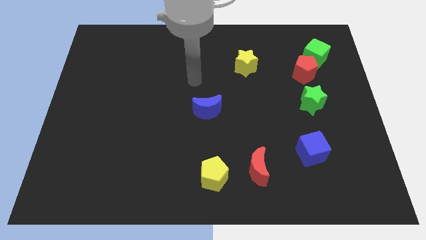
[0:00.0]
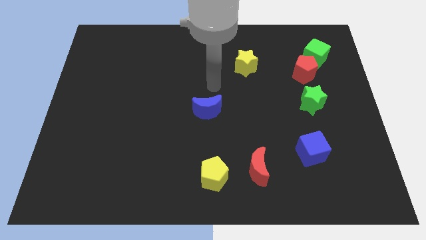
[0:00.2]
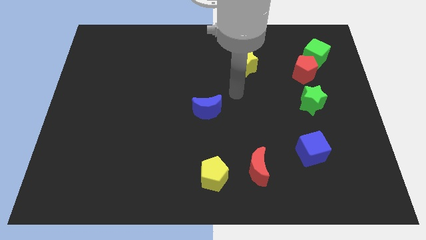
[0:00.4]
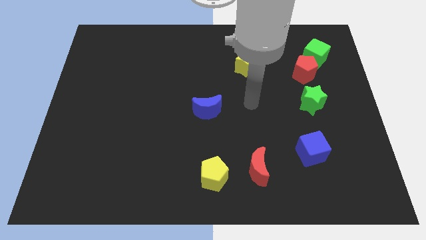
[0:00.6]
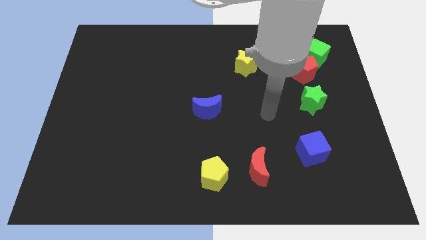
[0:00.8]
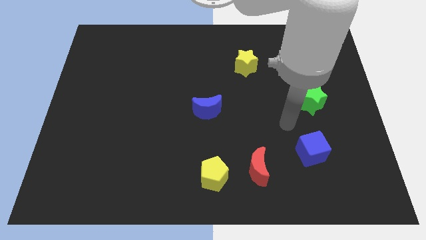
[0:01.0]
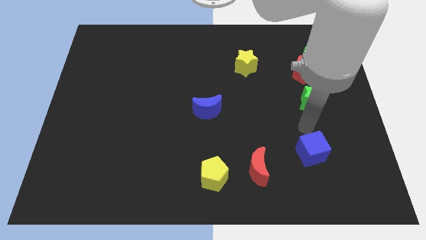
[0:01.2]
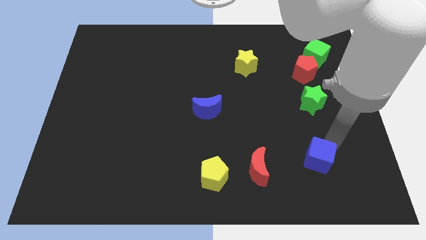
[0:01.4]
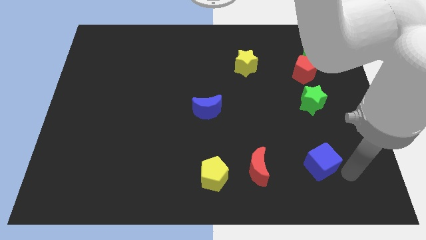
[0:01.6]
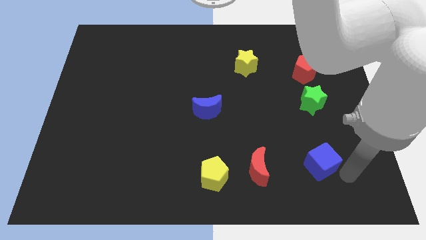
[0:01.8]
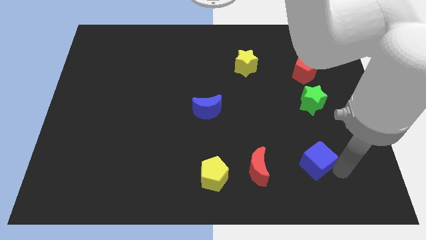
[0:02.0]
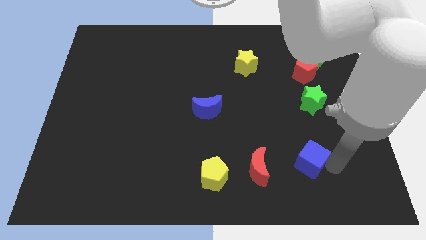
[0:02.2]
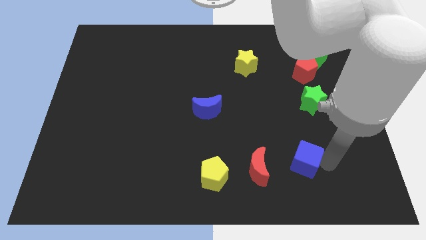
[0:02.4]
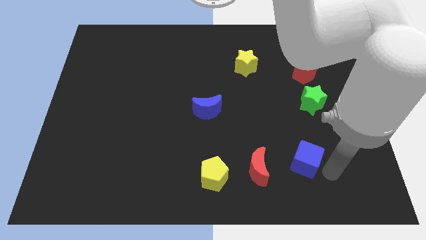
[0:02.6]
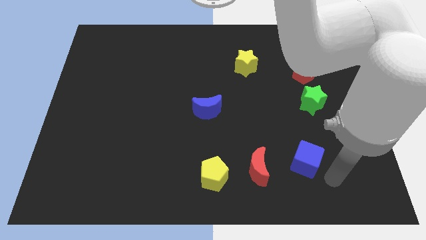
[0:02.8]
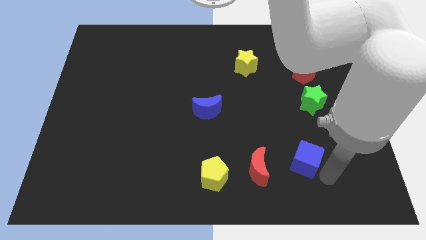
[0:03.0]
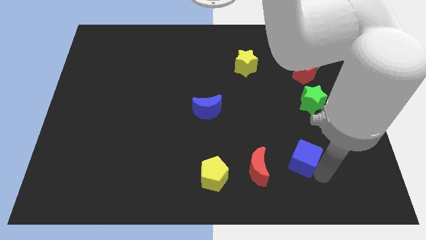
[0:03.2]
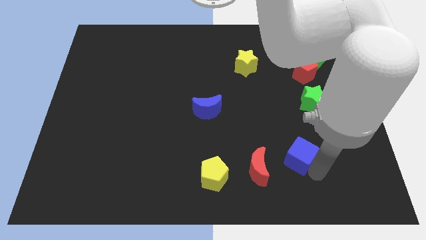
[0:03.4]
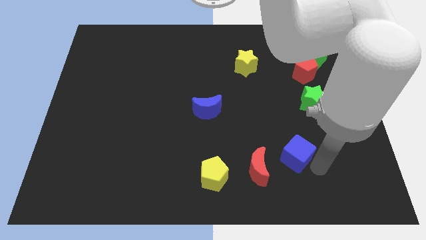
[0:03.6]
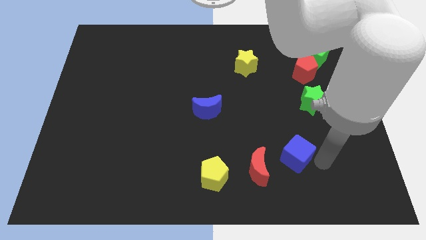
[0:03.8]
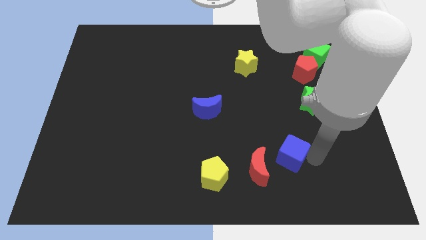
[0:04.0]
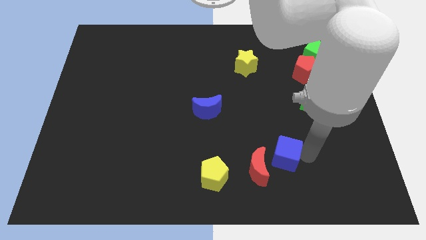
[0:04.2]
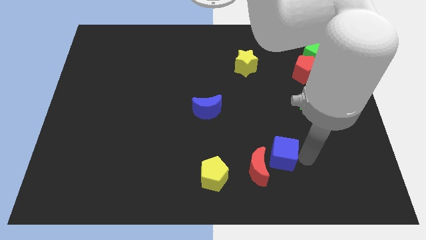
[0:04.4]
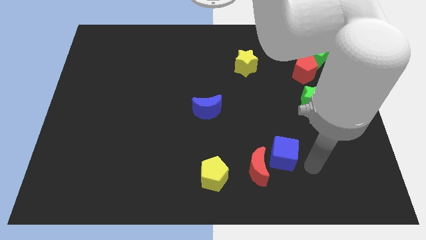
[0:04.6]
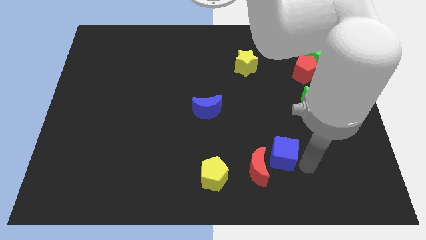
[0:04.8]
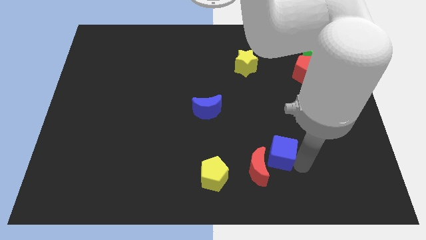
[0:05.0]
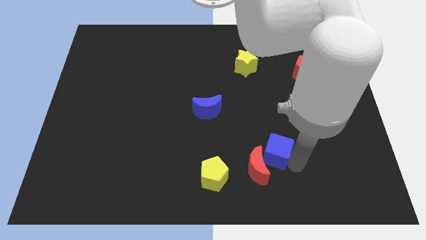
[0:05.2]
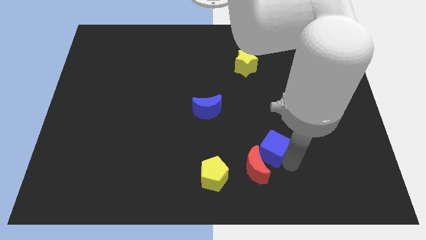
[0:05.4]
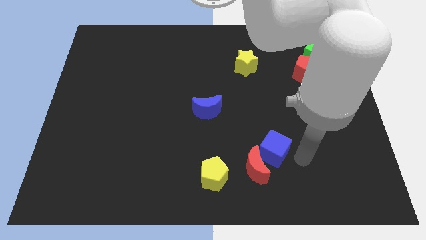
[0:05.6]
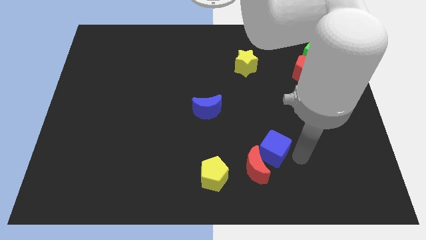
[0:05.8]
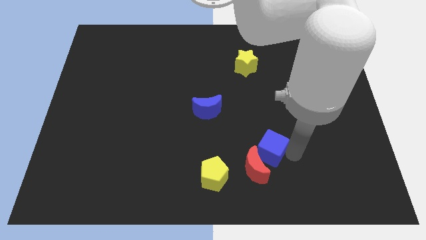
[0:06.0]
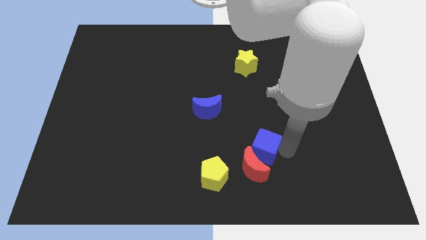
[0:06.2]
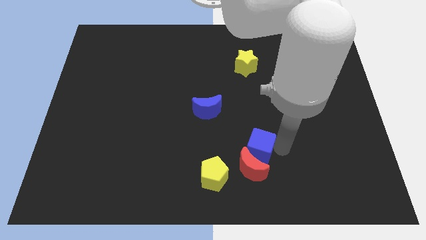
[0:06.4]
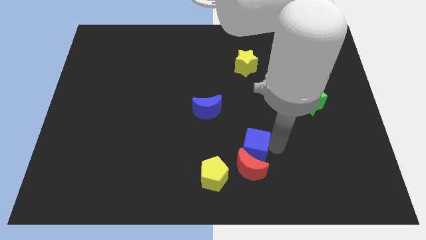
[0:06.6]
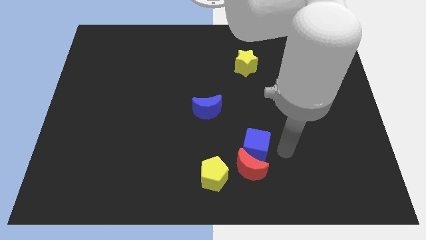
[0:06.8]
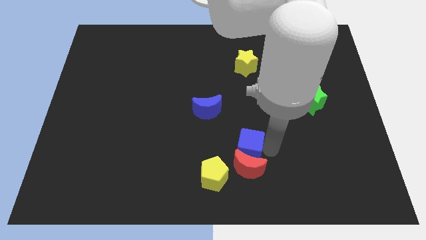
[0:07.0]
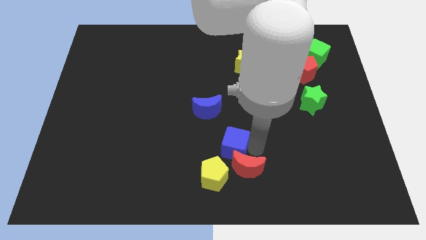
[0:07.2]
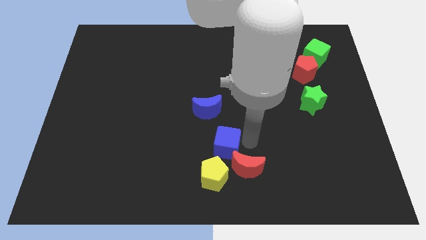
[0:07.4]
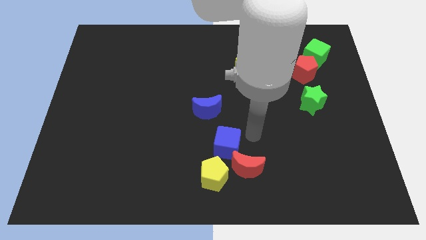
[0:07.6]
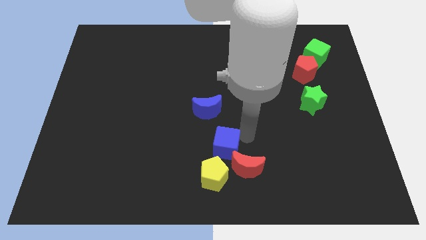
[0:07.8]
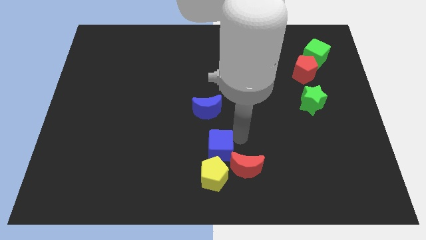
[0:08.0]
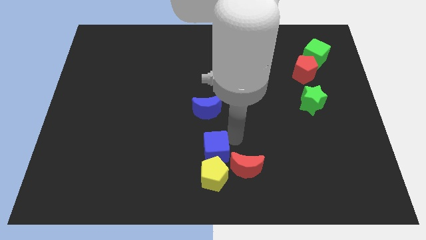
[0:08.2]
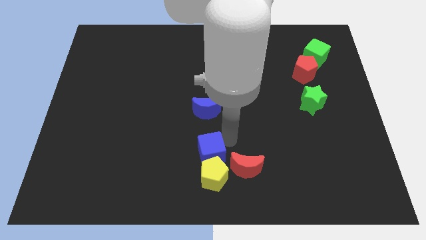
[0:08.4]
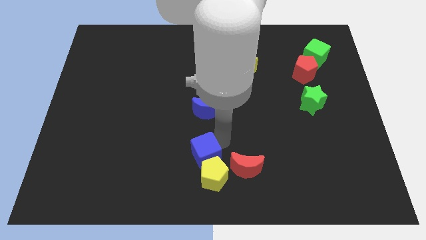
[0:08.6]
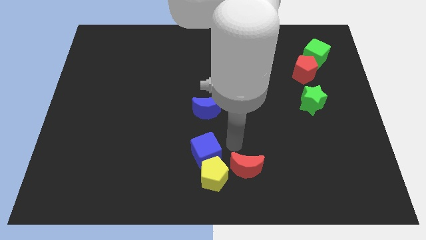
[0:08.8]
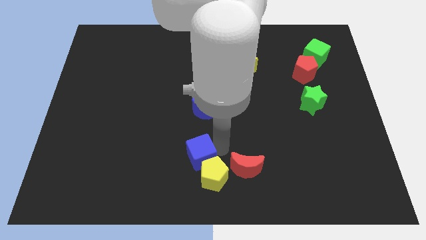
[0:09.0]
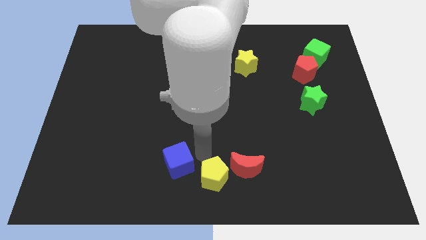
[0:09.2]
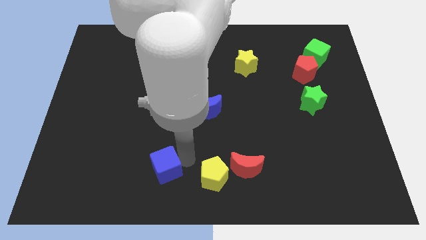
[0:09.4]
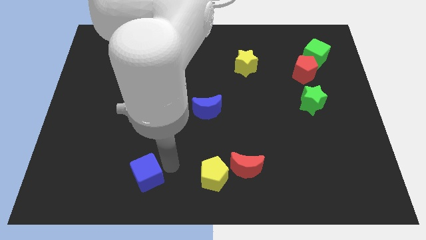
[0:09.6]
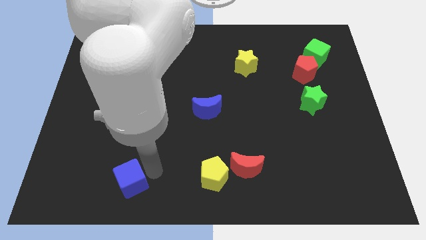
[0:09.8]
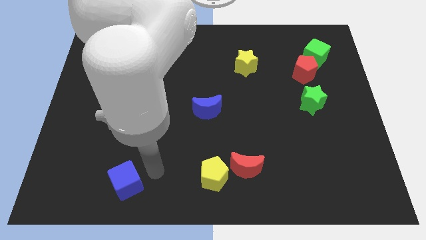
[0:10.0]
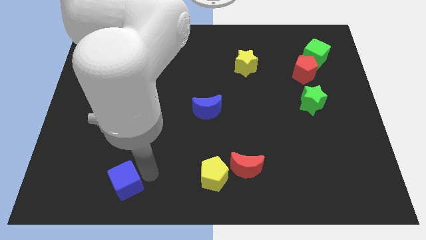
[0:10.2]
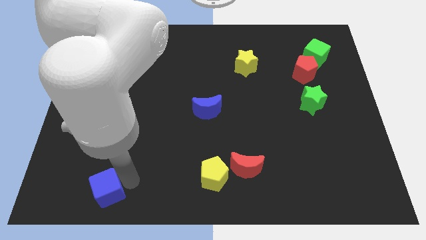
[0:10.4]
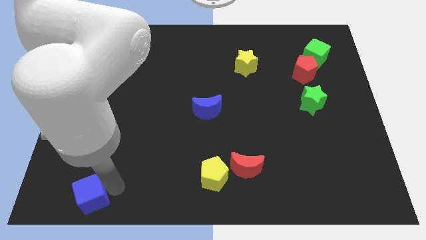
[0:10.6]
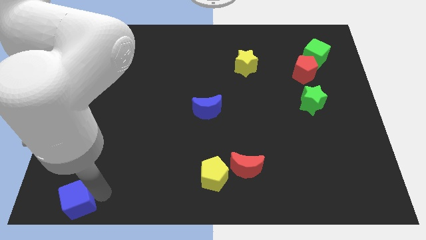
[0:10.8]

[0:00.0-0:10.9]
move the blue cube to the bottom left of the board

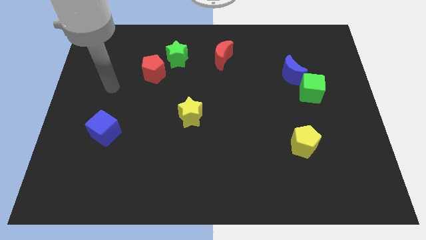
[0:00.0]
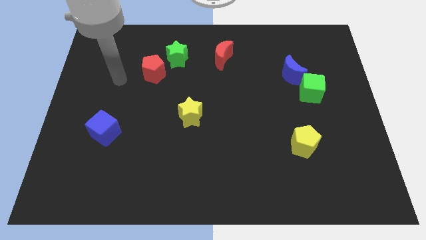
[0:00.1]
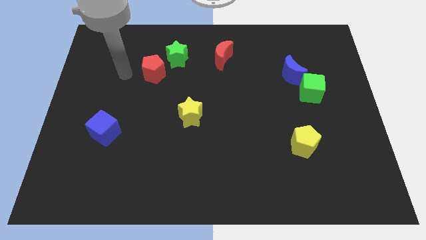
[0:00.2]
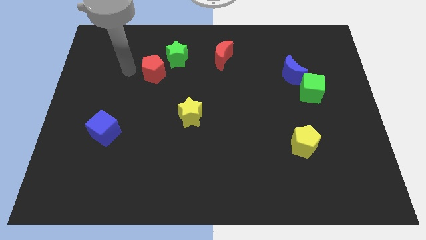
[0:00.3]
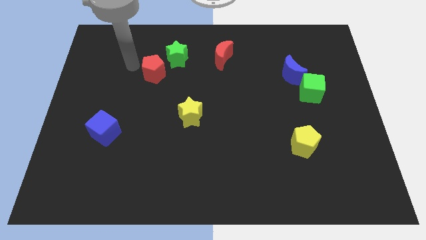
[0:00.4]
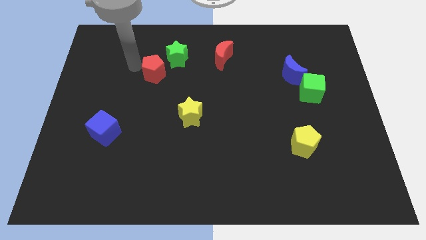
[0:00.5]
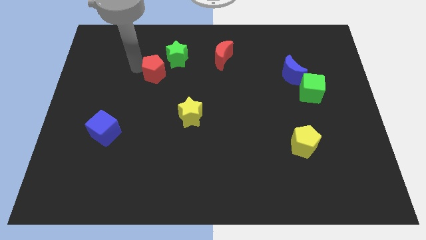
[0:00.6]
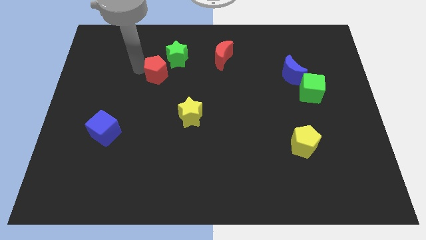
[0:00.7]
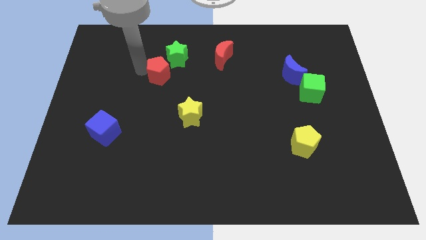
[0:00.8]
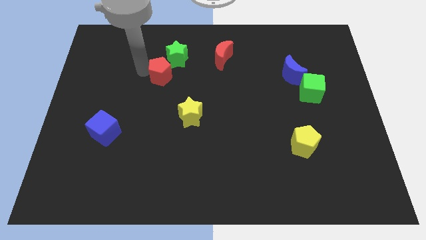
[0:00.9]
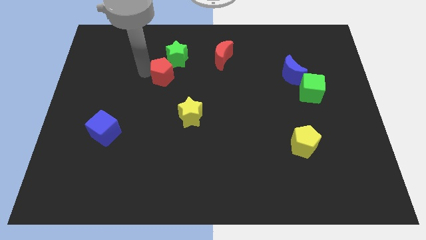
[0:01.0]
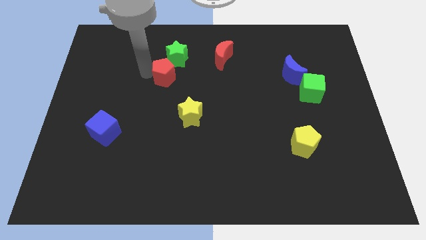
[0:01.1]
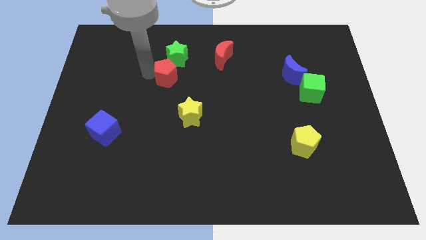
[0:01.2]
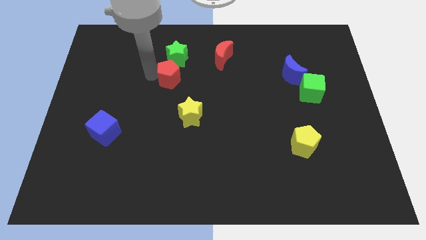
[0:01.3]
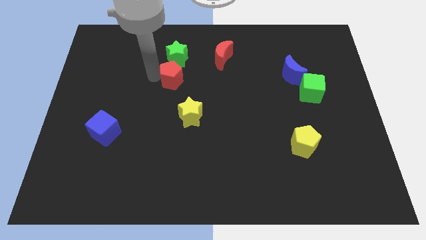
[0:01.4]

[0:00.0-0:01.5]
push the red pentagon to the middle

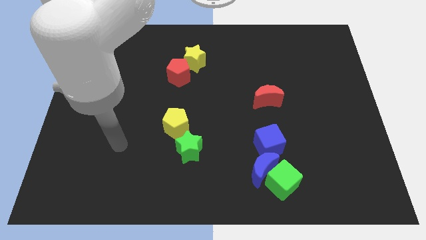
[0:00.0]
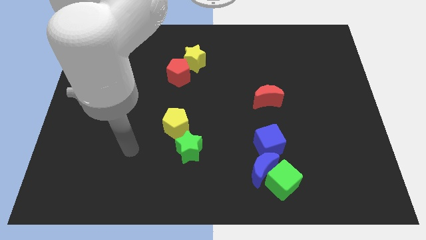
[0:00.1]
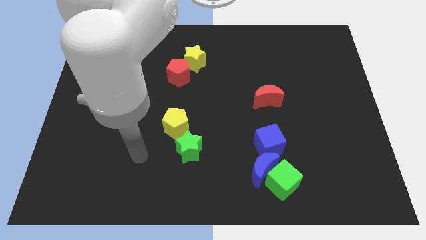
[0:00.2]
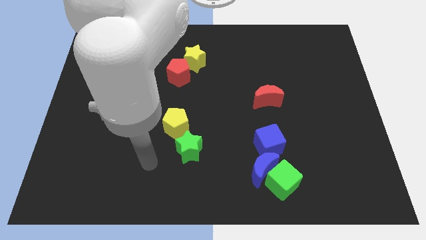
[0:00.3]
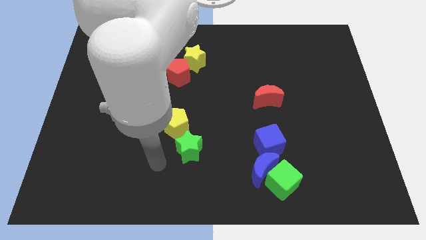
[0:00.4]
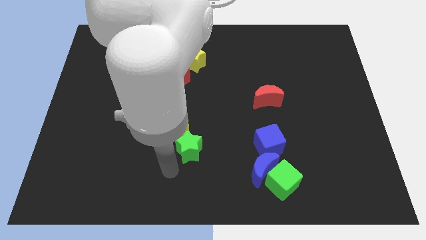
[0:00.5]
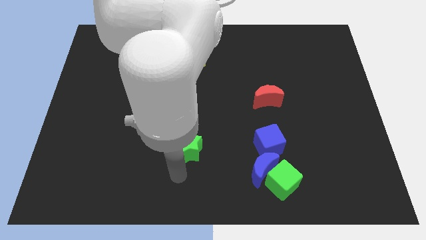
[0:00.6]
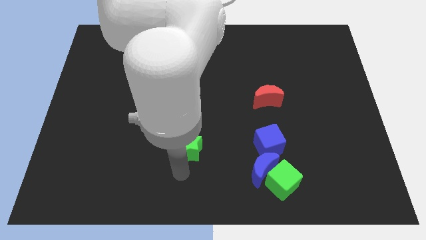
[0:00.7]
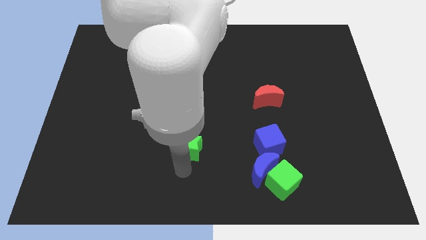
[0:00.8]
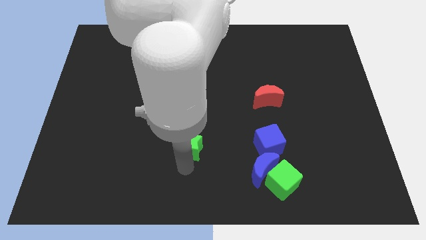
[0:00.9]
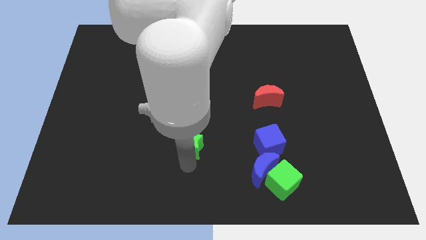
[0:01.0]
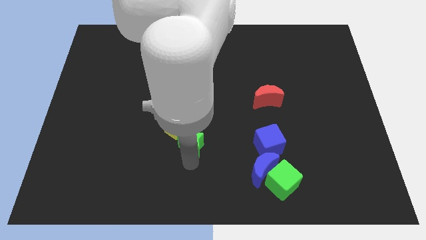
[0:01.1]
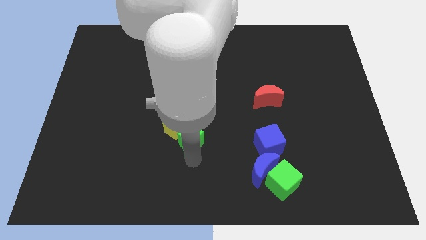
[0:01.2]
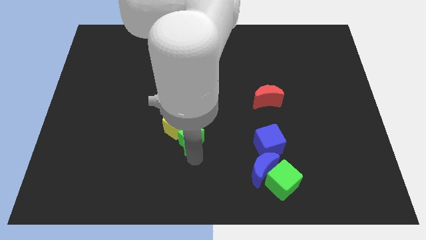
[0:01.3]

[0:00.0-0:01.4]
put the green star to the middle
